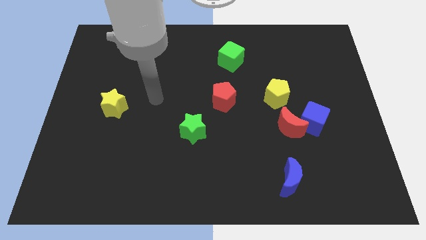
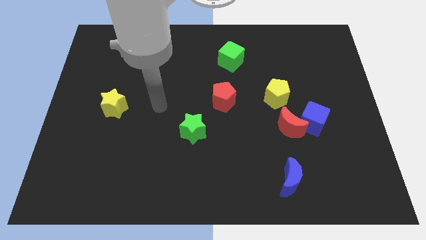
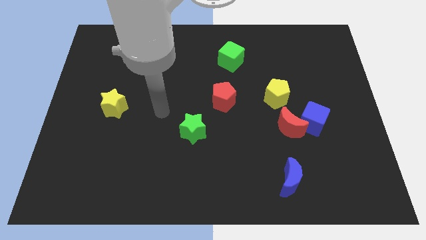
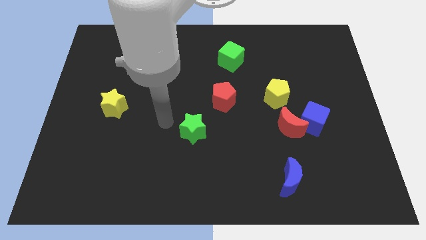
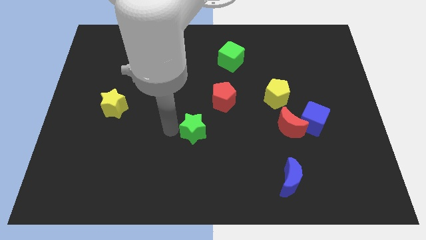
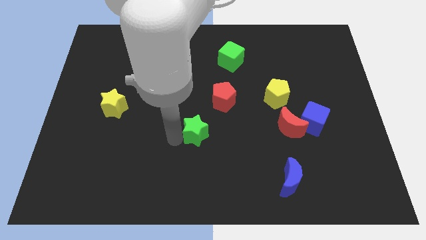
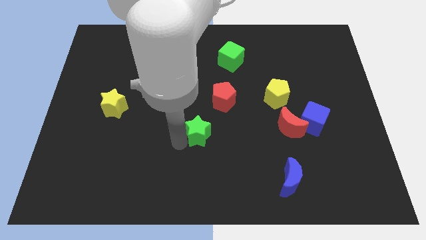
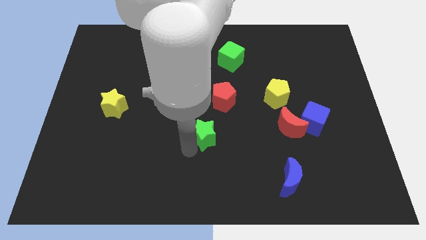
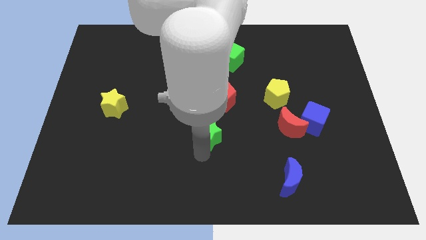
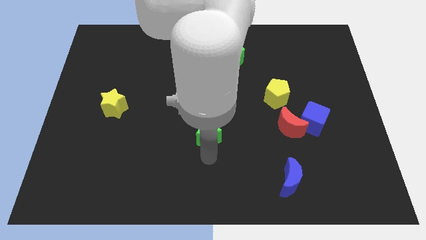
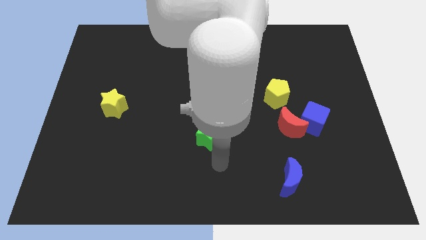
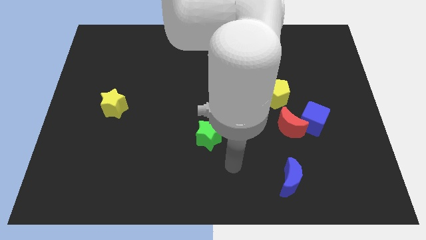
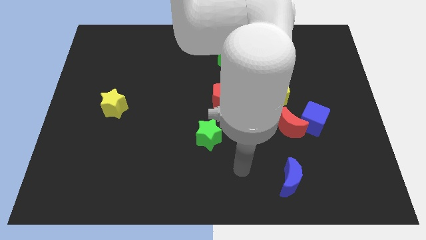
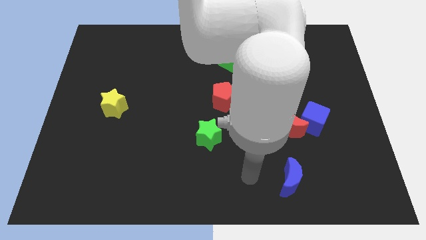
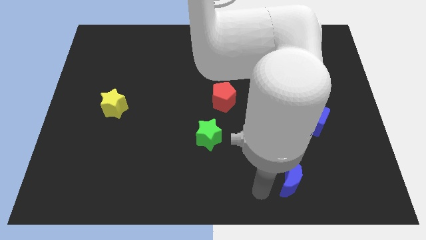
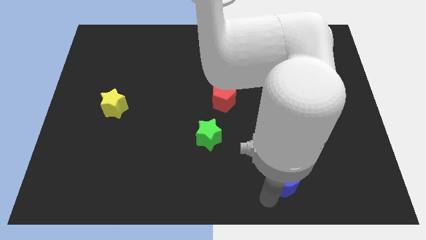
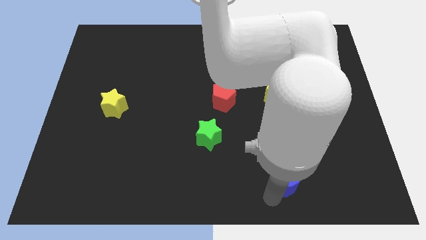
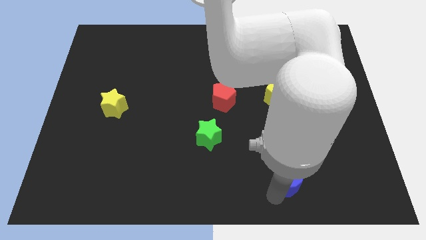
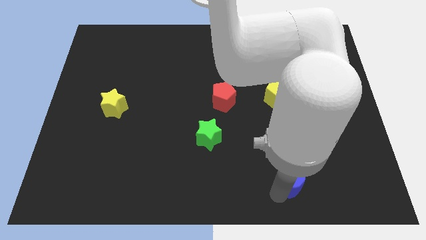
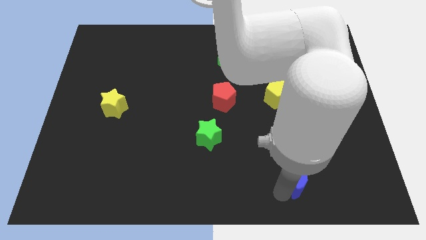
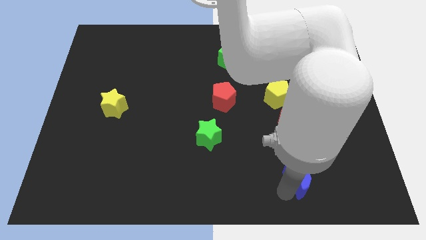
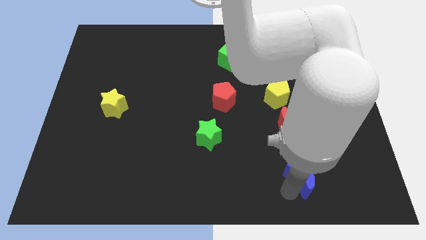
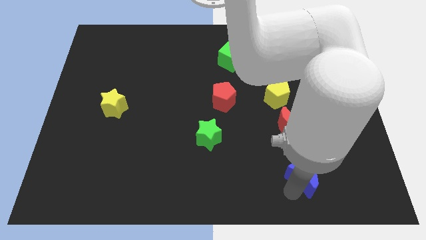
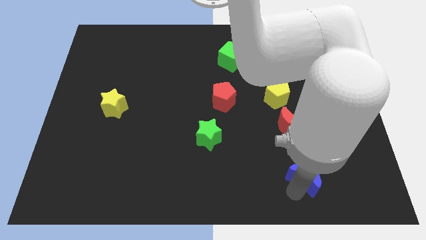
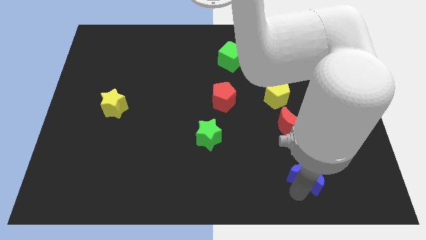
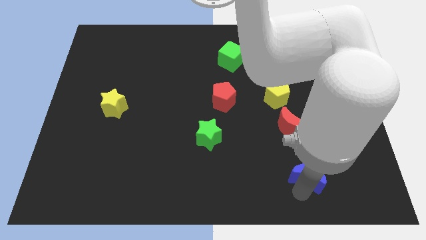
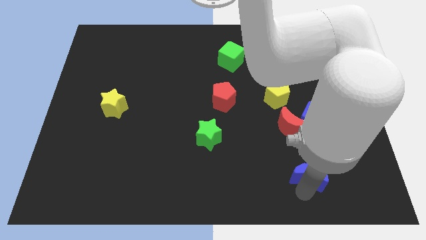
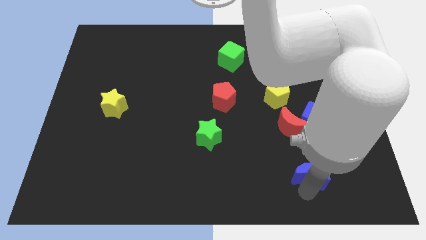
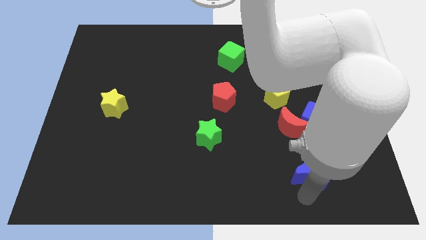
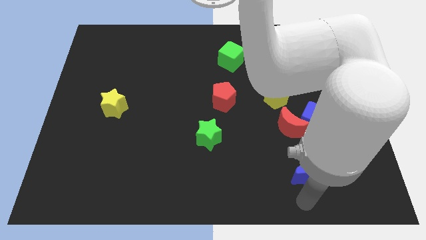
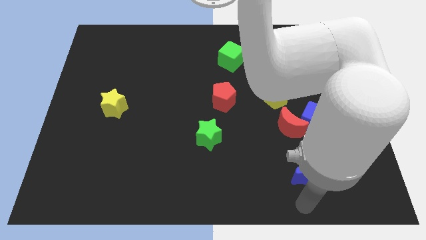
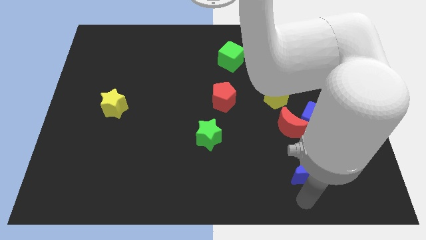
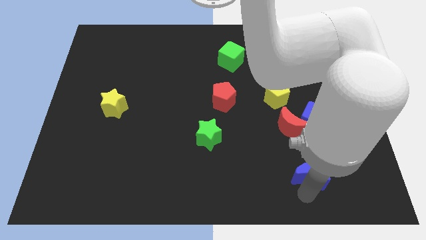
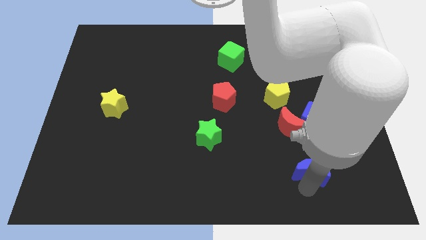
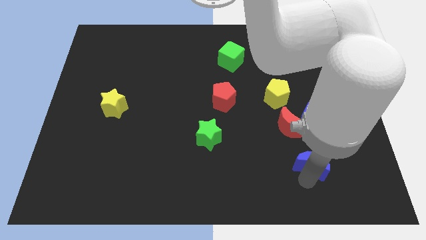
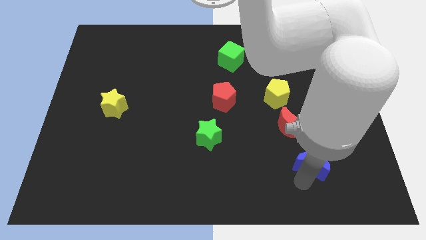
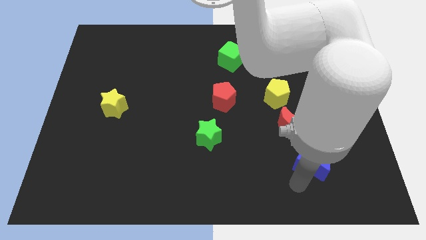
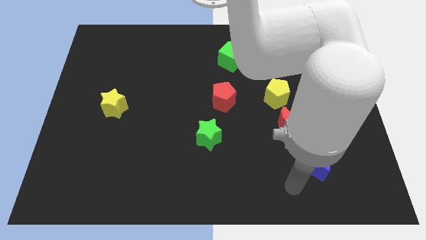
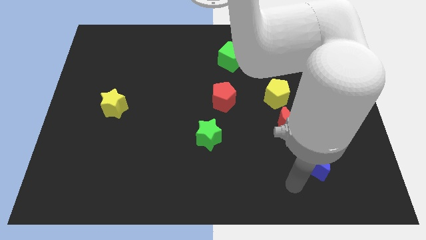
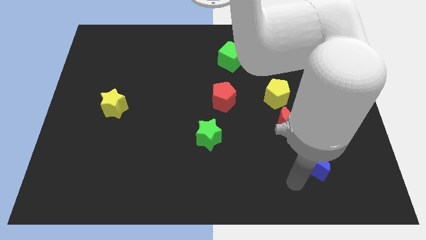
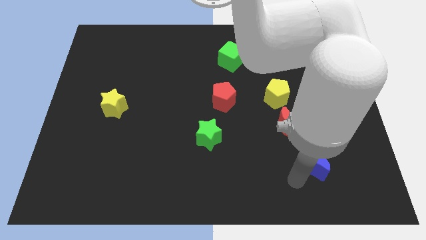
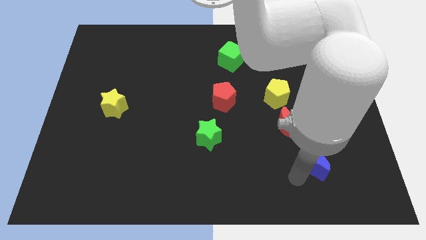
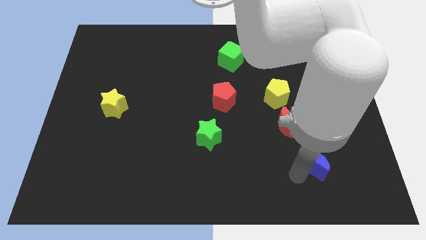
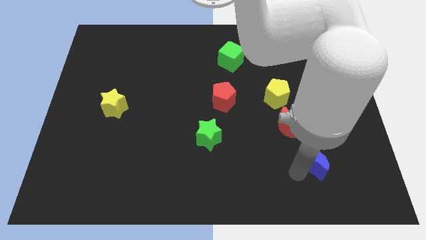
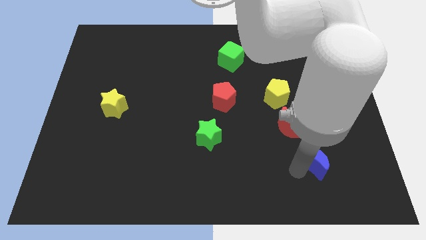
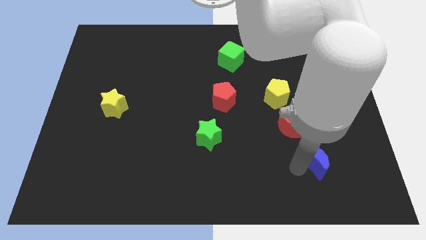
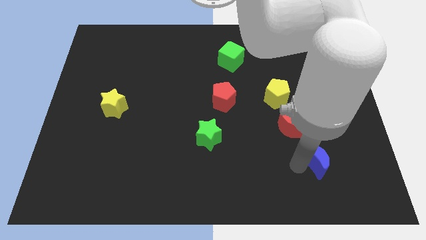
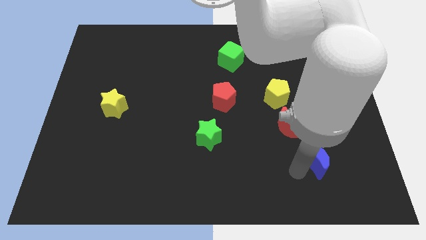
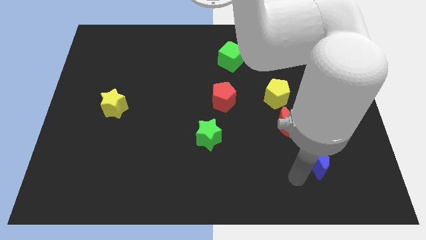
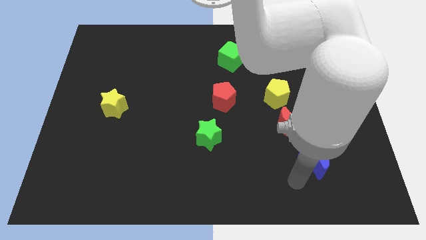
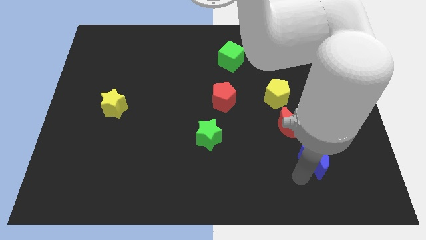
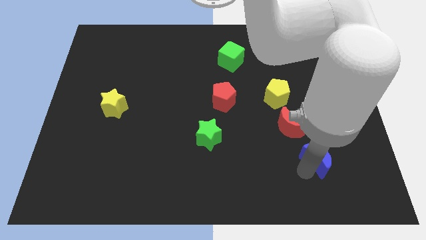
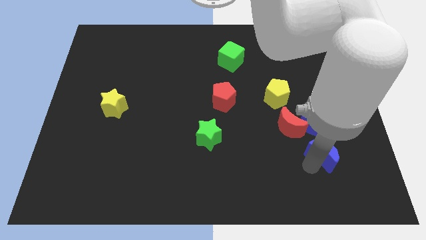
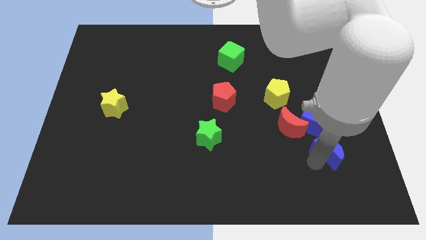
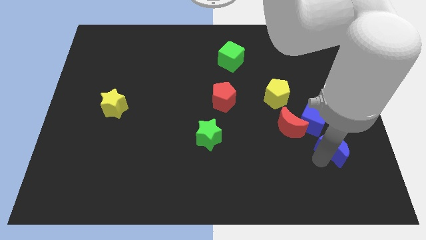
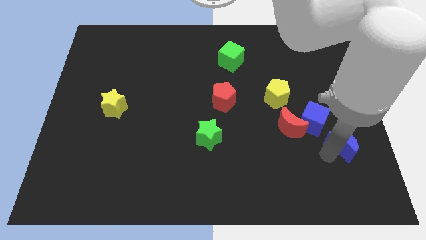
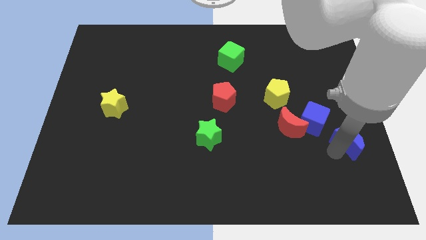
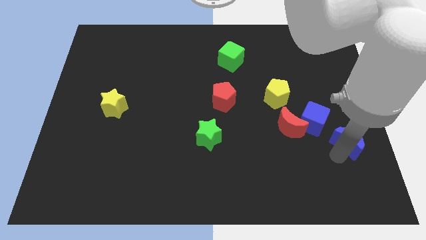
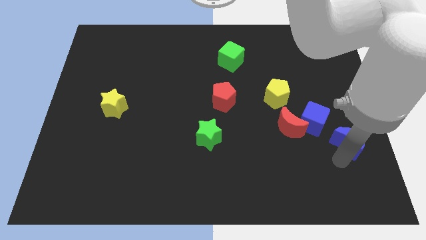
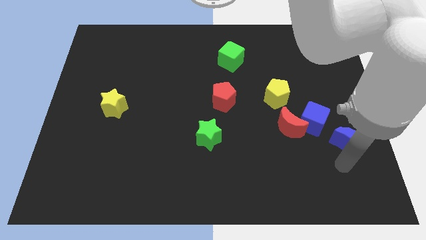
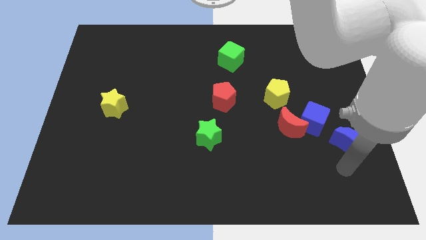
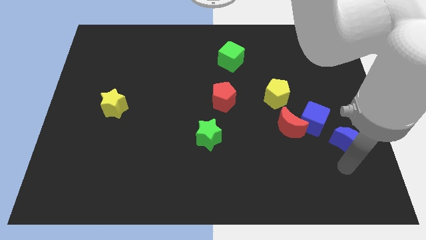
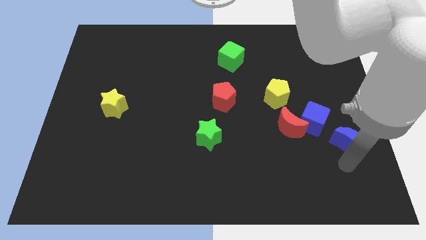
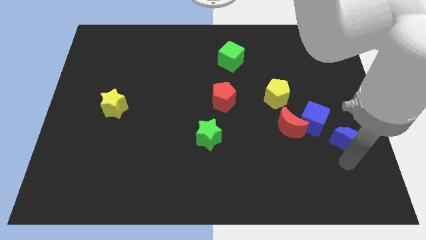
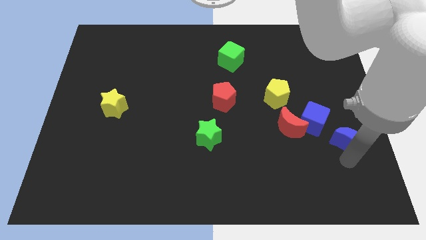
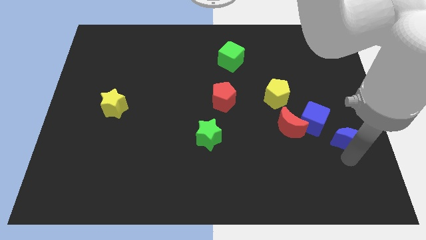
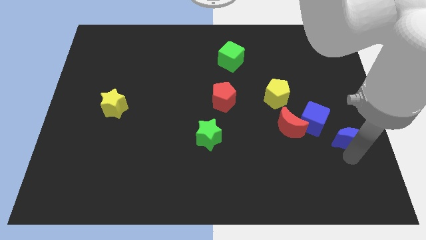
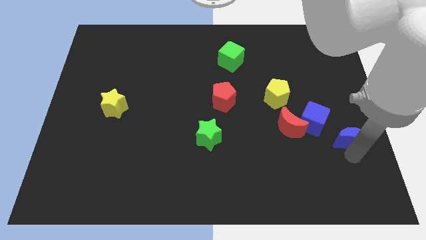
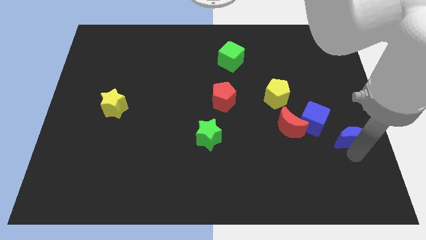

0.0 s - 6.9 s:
move the blue moon to the right side of the board

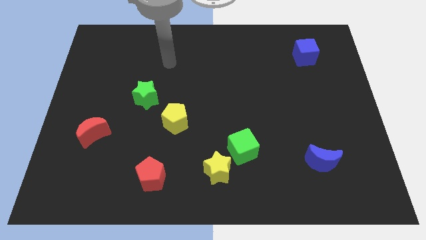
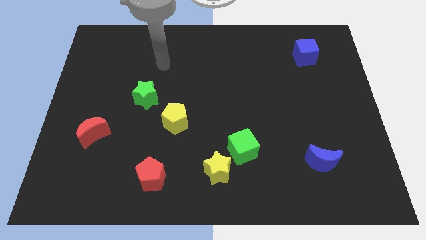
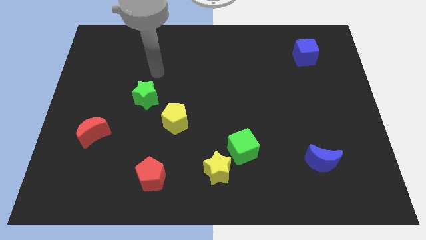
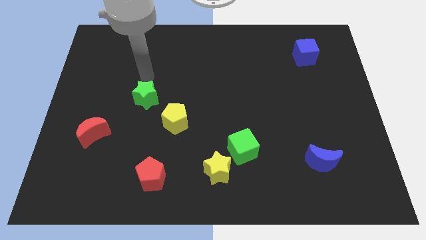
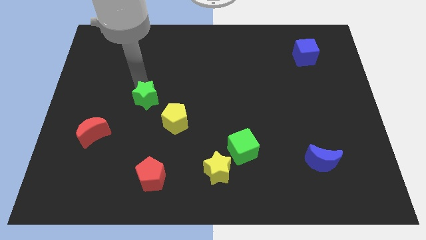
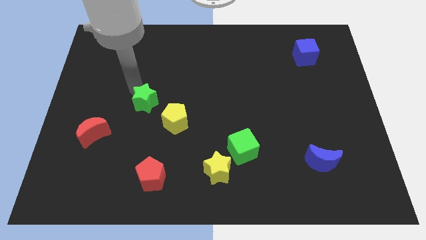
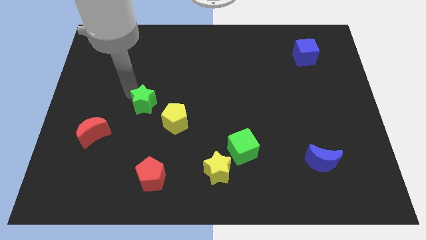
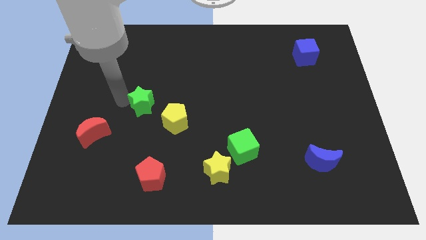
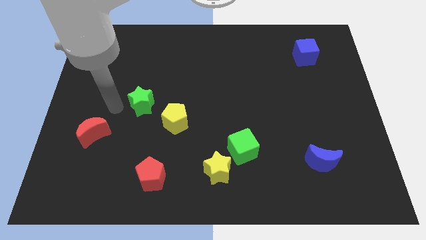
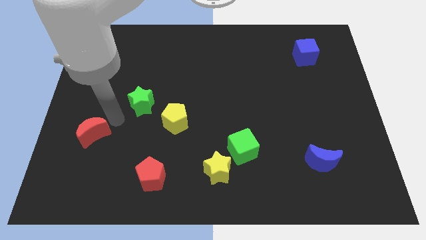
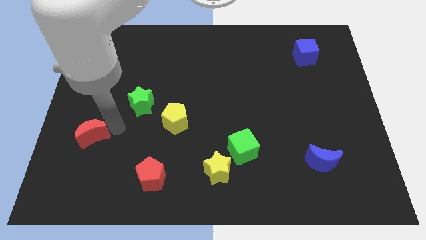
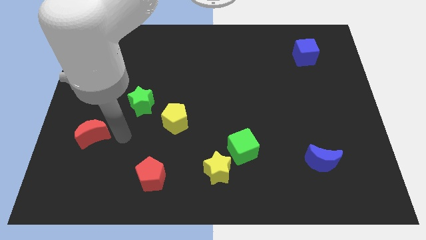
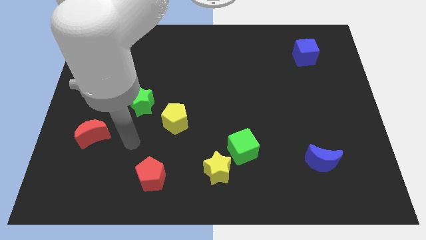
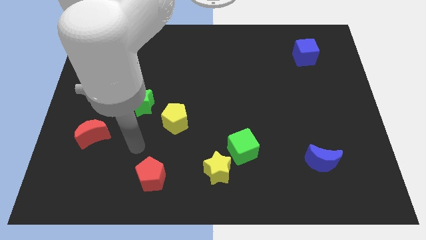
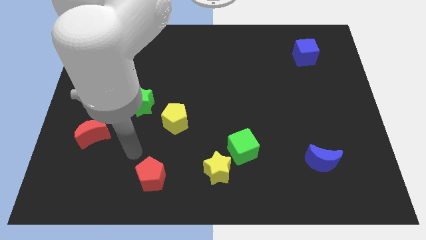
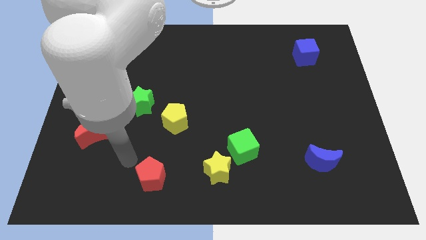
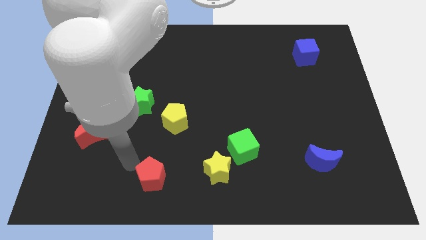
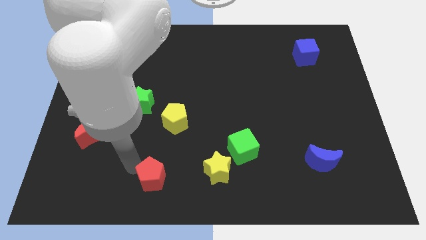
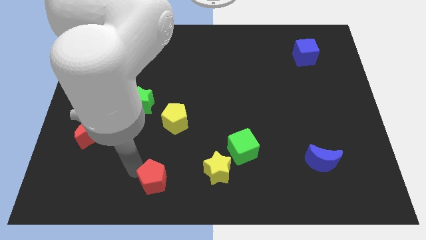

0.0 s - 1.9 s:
move the red pentagon to the bottom
